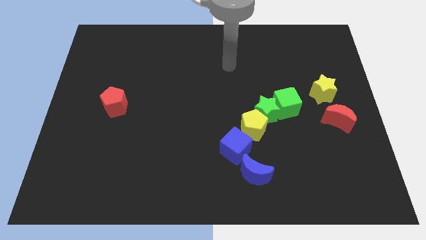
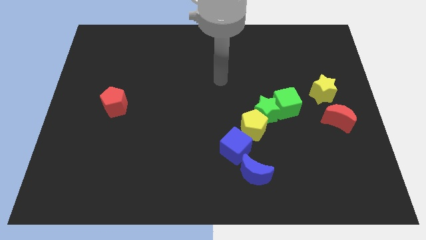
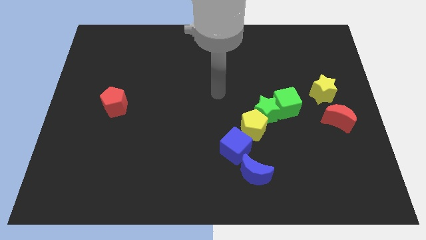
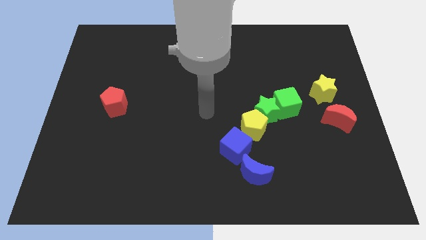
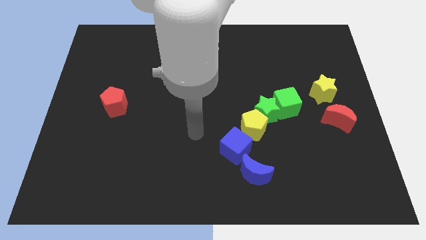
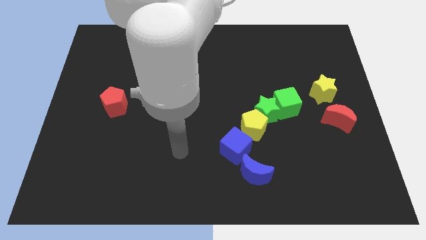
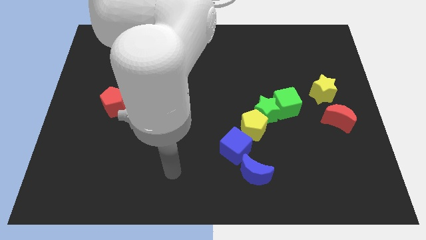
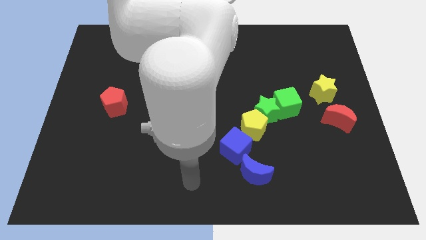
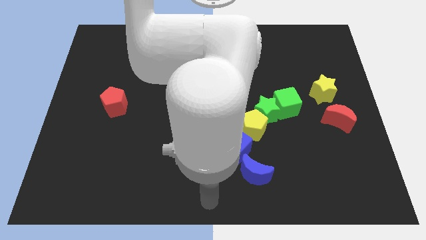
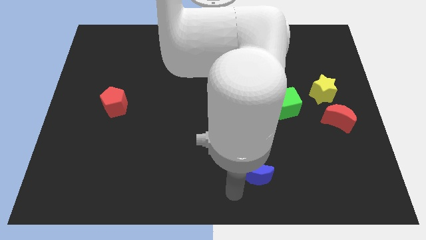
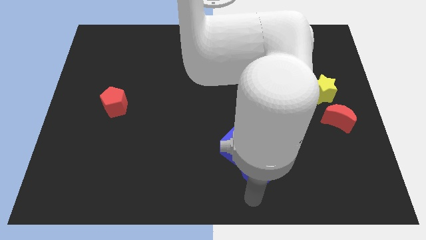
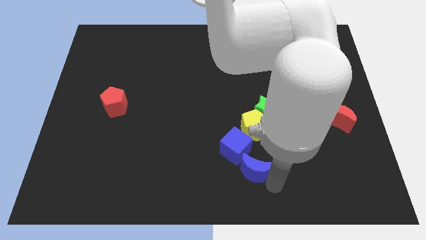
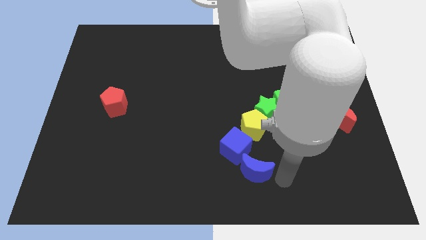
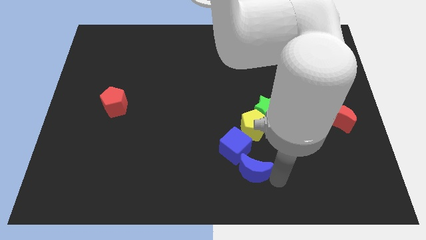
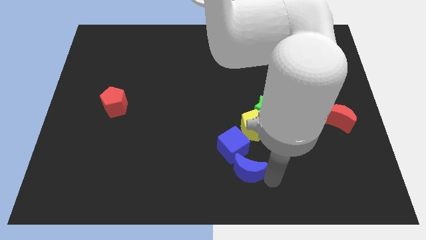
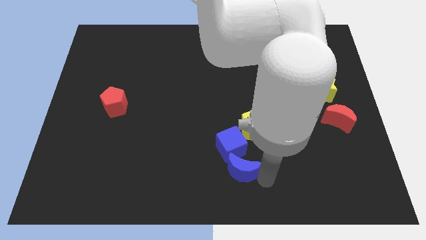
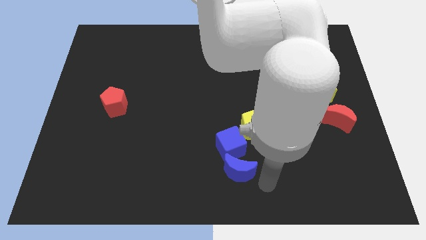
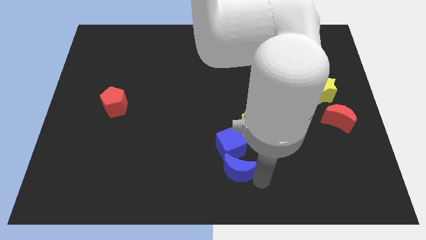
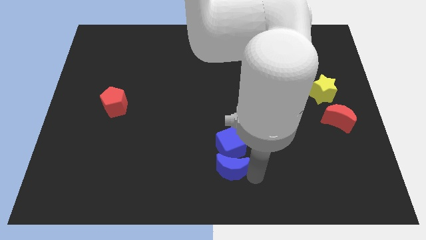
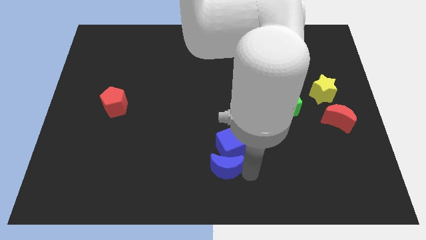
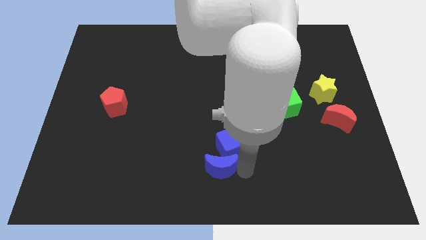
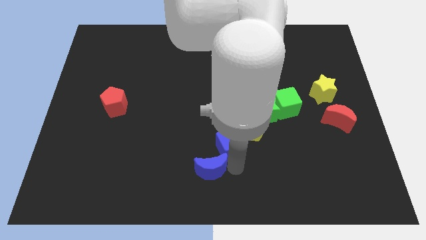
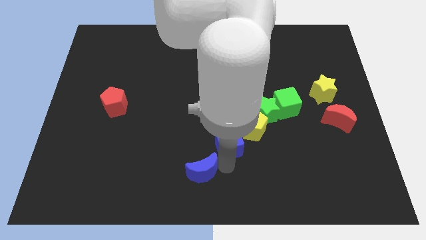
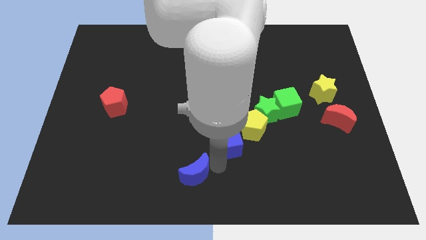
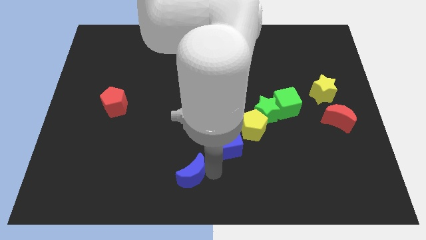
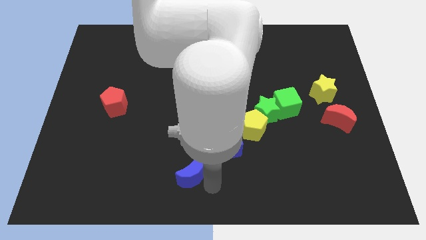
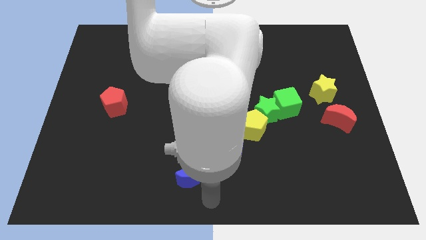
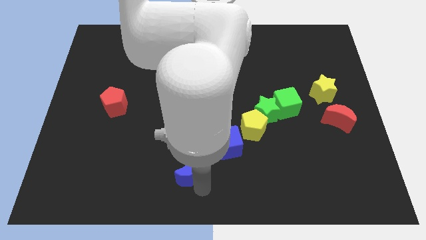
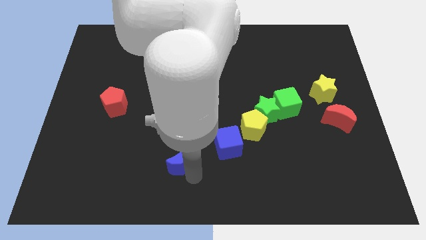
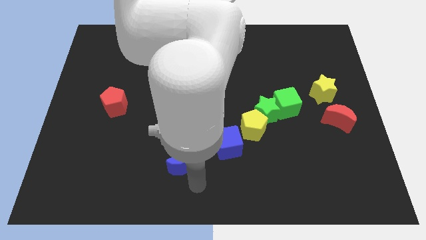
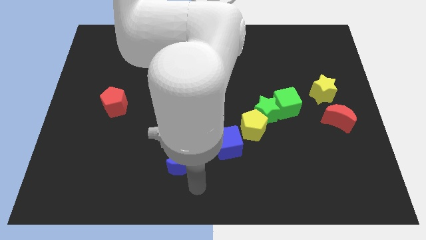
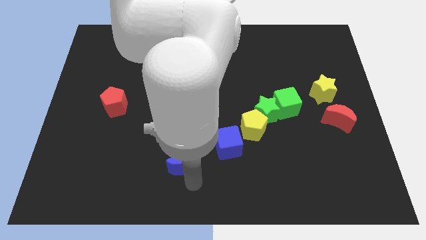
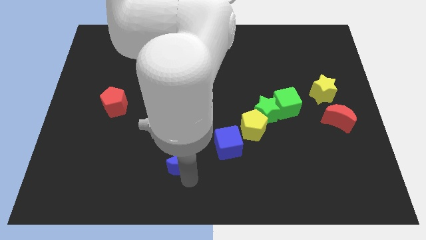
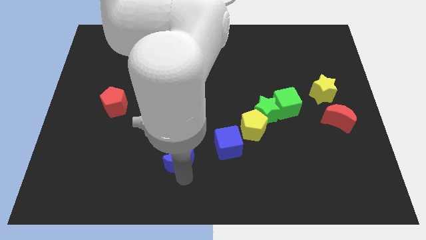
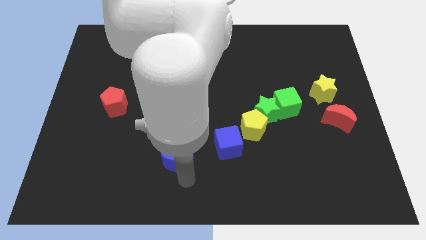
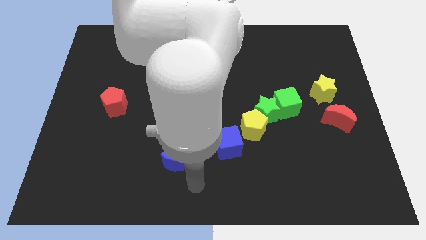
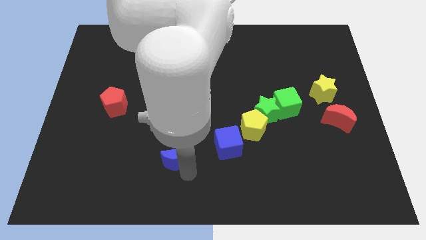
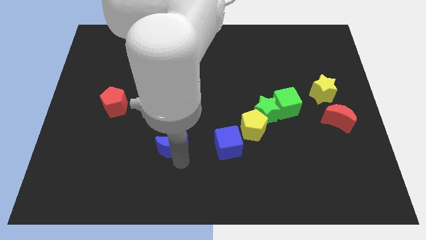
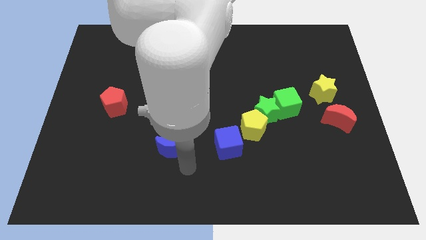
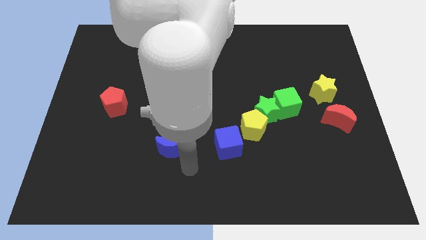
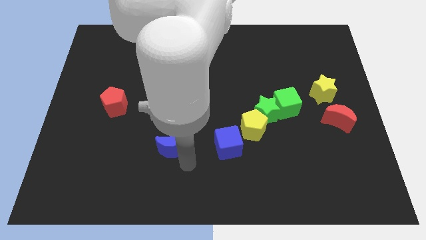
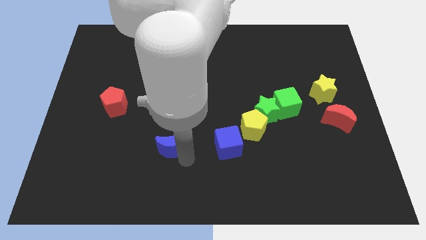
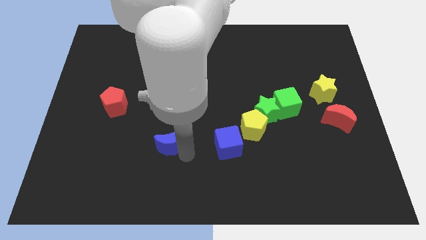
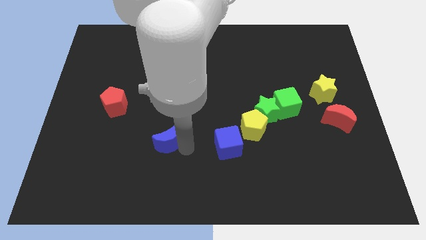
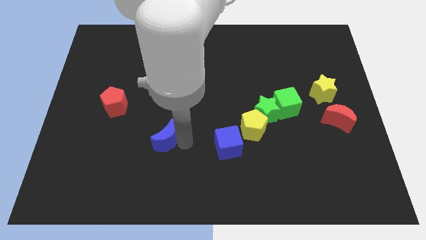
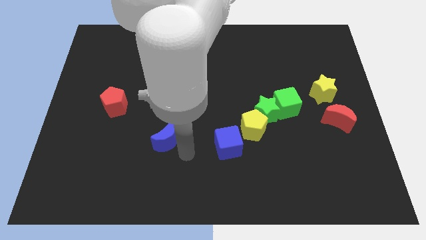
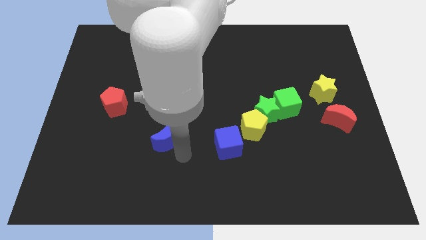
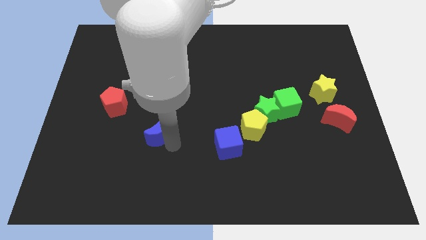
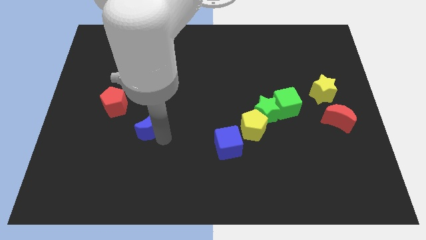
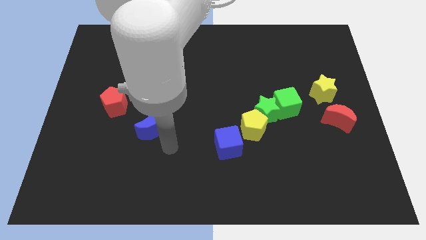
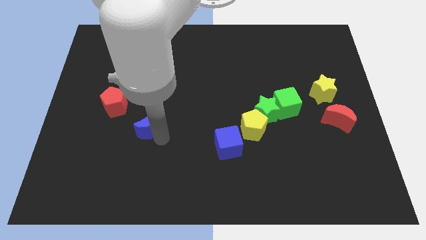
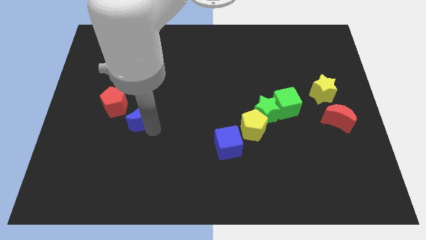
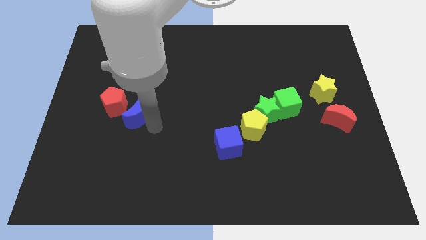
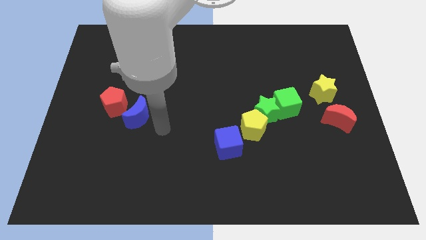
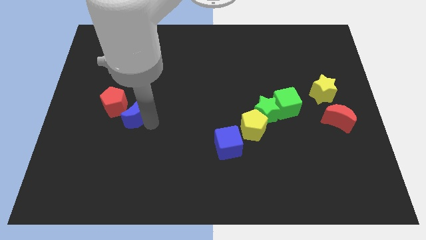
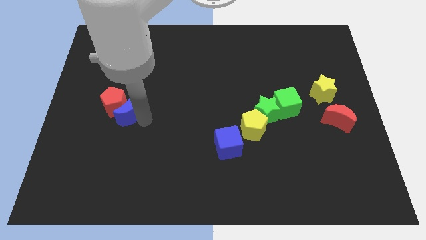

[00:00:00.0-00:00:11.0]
put the blue moon to the red pentagon

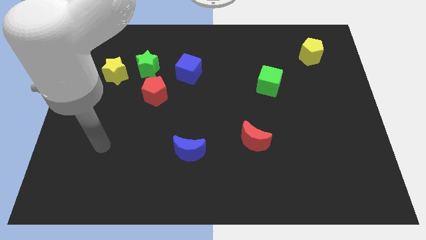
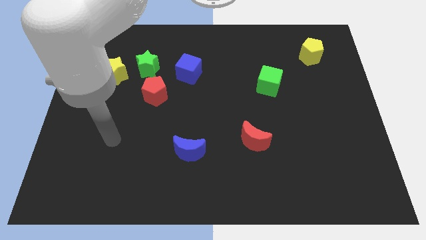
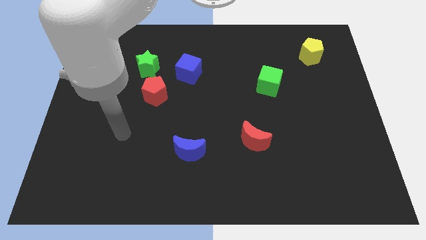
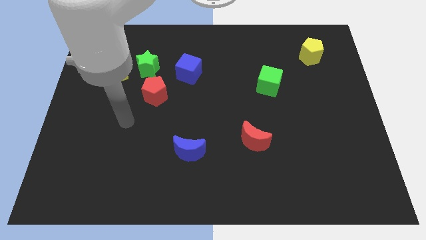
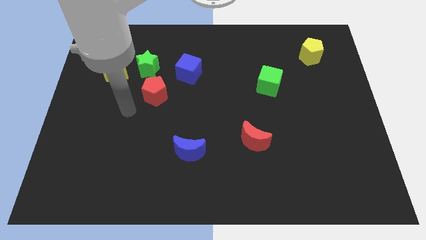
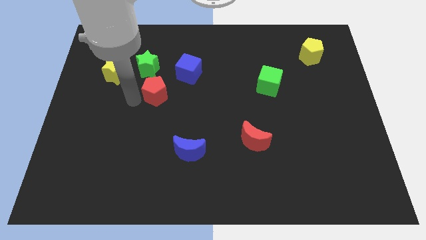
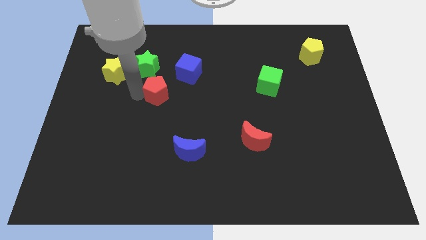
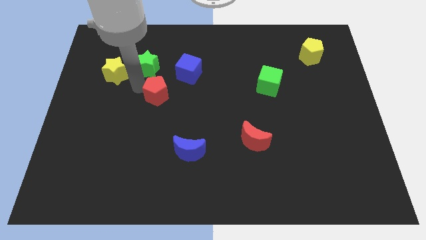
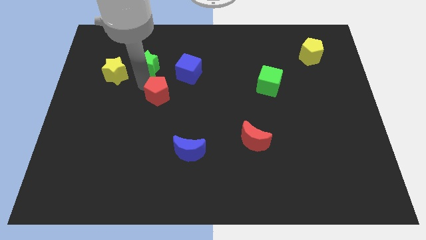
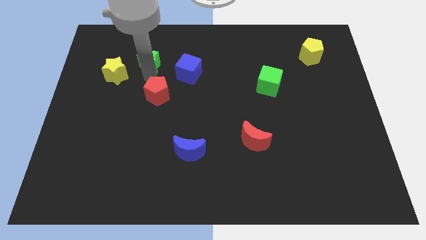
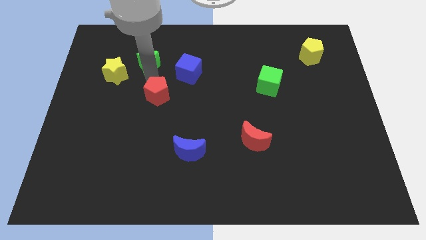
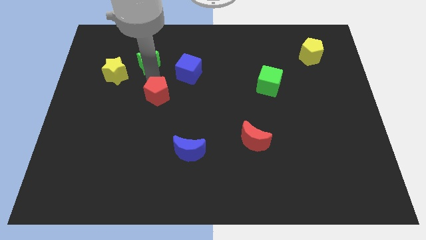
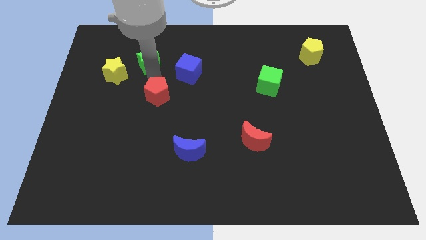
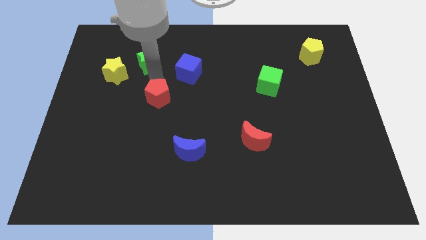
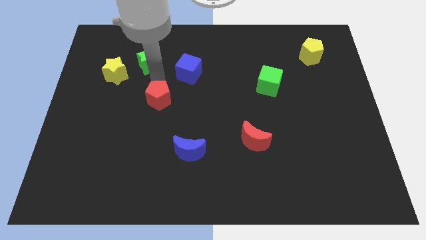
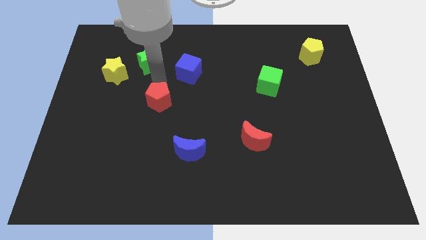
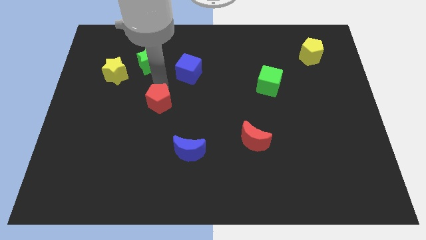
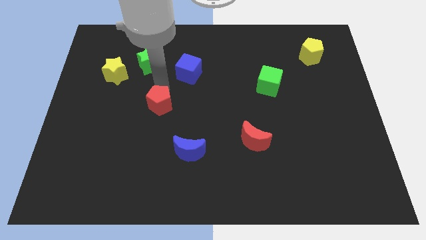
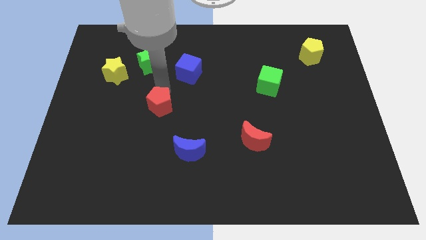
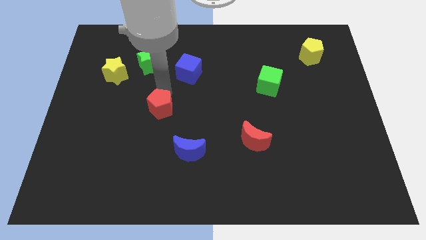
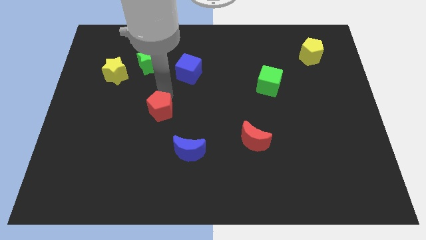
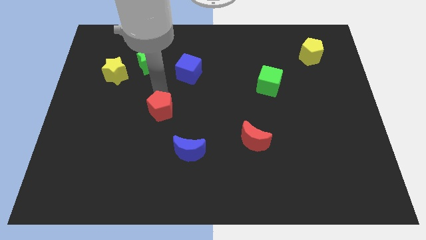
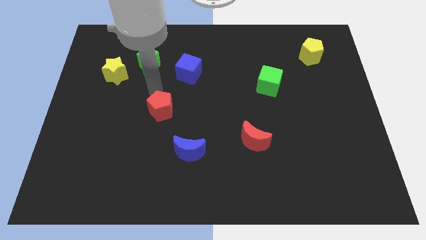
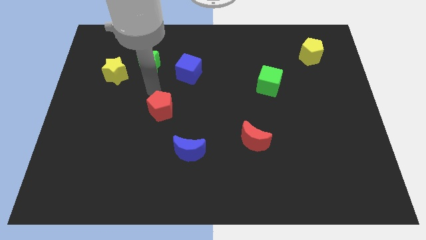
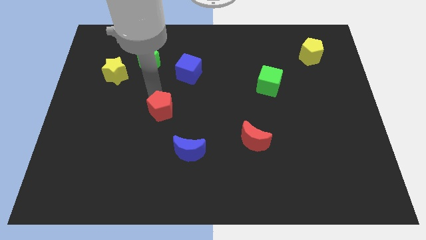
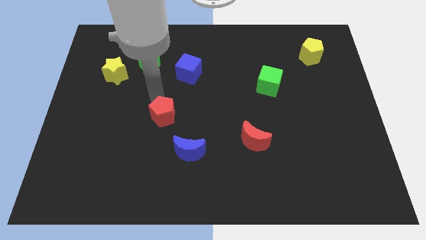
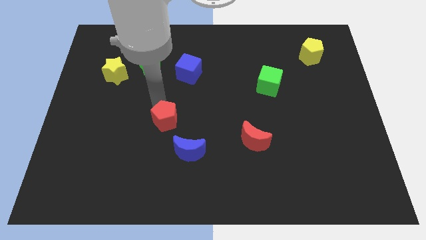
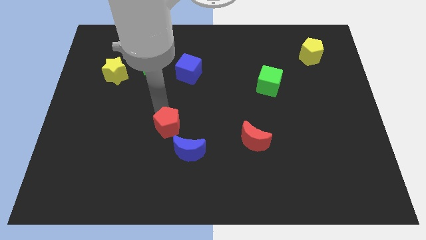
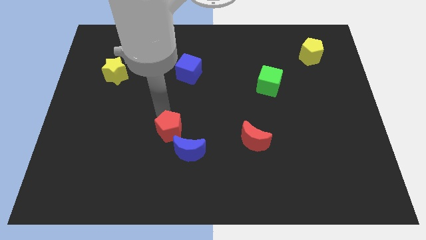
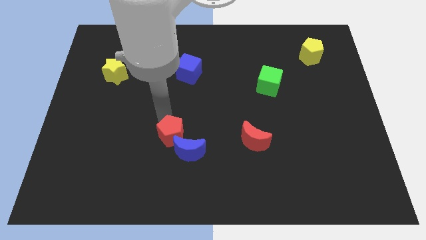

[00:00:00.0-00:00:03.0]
slide the red pentagon close to the blue moon
